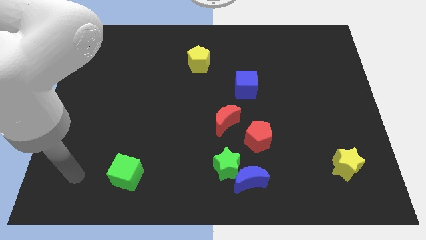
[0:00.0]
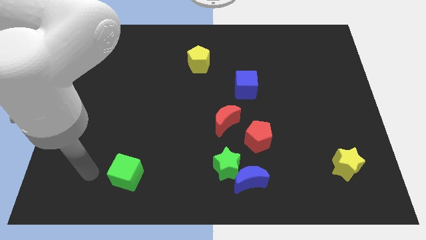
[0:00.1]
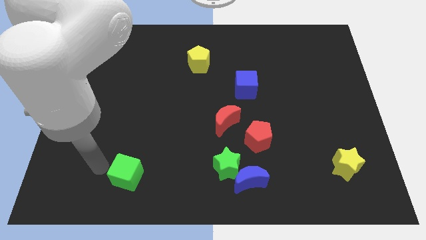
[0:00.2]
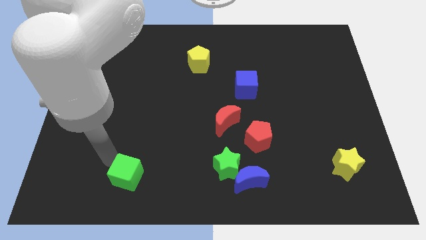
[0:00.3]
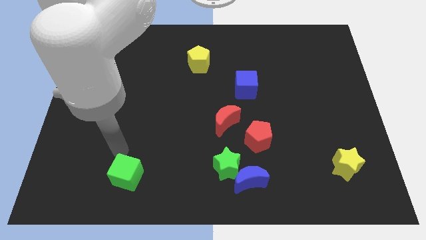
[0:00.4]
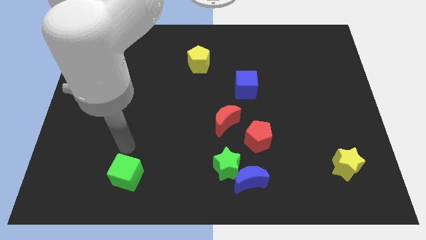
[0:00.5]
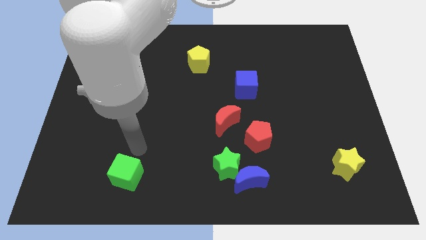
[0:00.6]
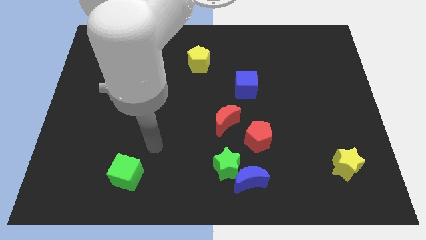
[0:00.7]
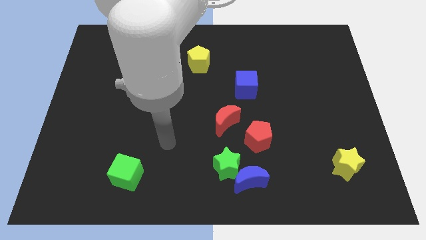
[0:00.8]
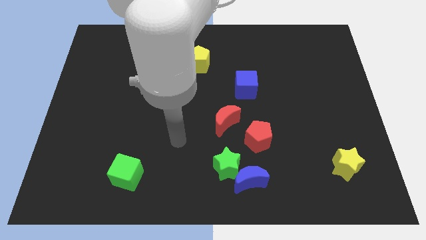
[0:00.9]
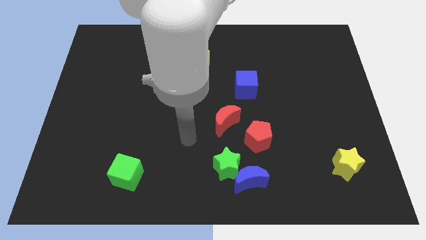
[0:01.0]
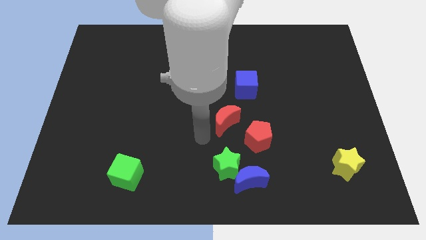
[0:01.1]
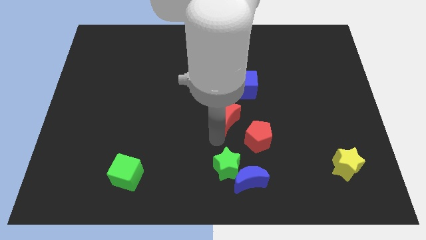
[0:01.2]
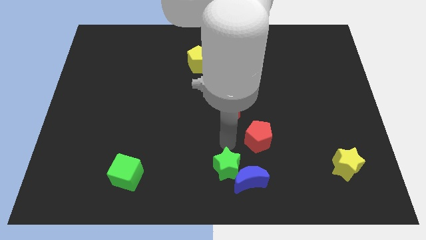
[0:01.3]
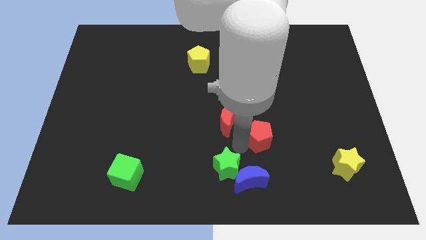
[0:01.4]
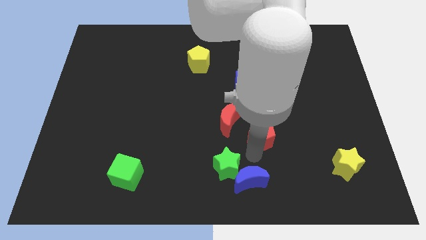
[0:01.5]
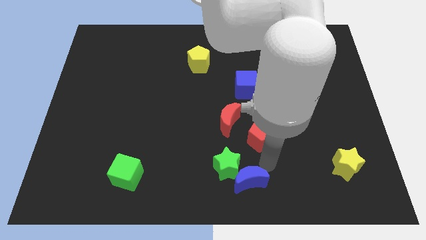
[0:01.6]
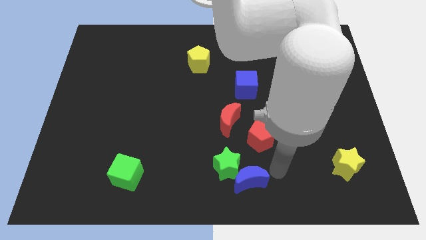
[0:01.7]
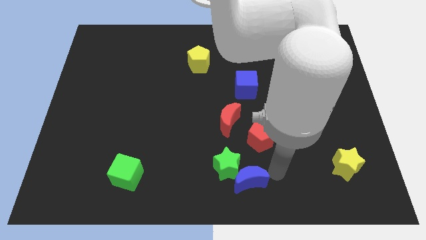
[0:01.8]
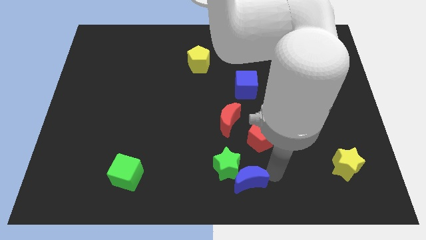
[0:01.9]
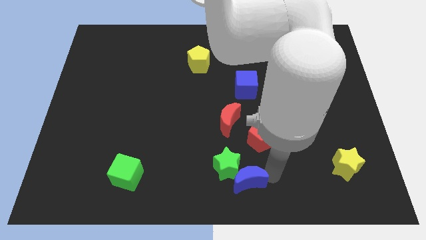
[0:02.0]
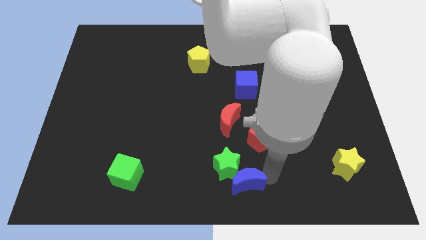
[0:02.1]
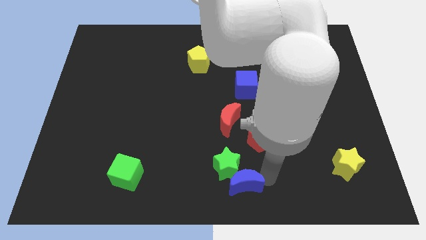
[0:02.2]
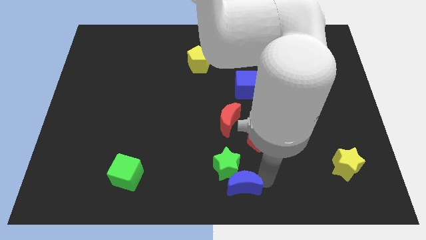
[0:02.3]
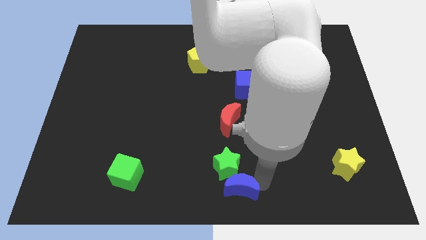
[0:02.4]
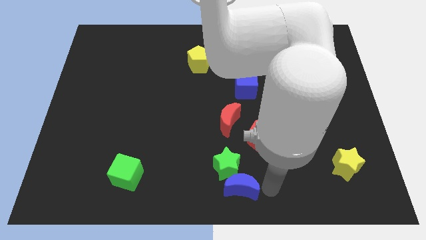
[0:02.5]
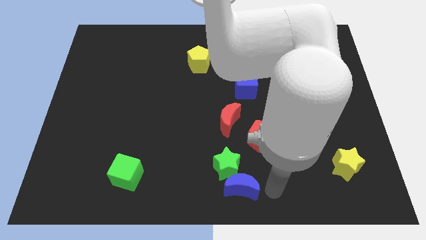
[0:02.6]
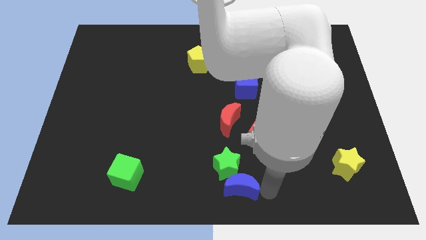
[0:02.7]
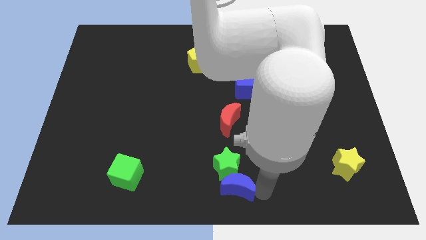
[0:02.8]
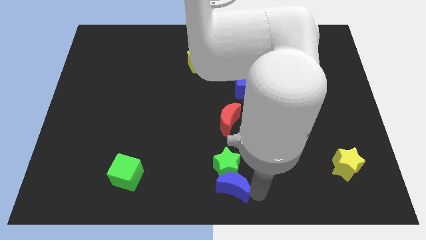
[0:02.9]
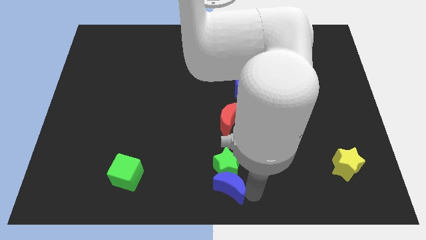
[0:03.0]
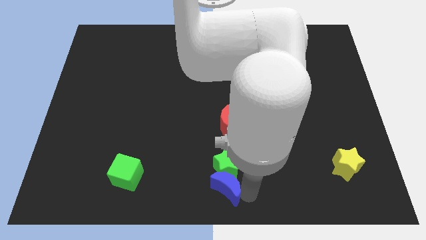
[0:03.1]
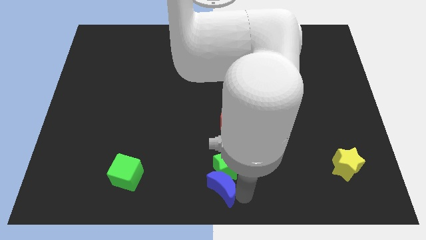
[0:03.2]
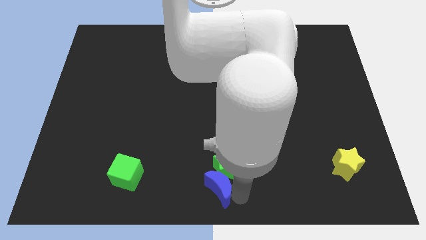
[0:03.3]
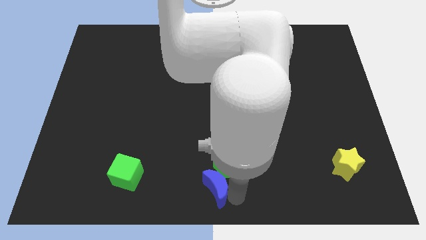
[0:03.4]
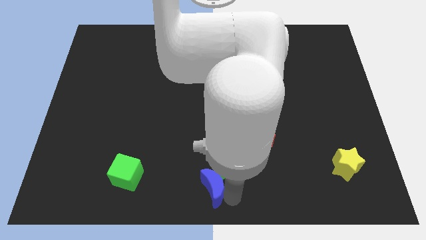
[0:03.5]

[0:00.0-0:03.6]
slide the blue moon somewhat left

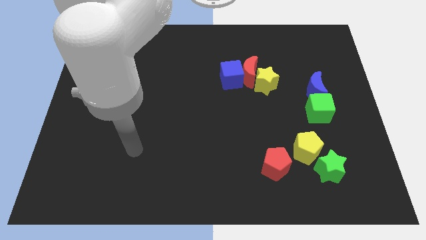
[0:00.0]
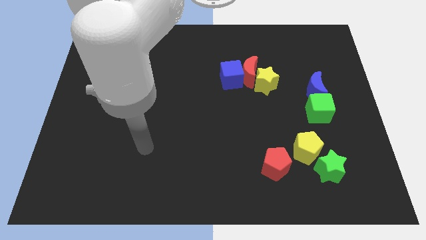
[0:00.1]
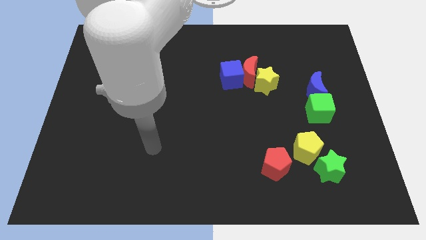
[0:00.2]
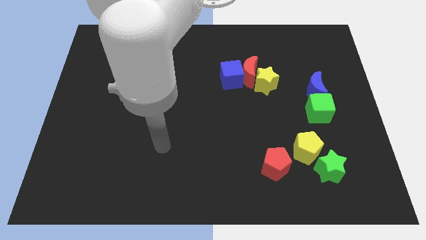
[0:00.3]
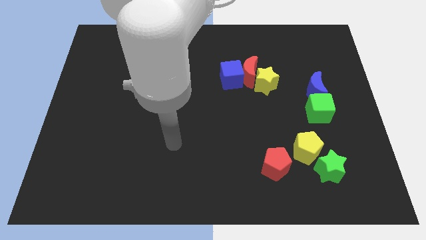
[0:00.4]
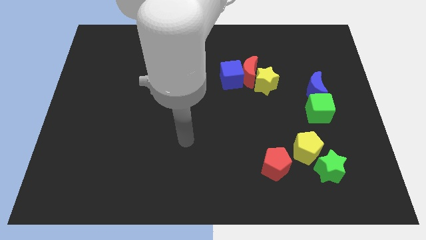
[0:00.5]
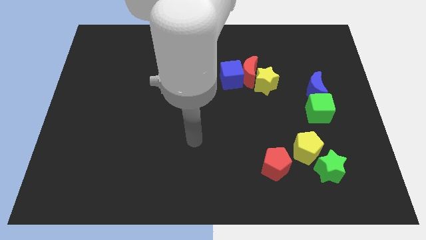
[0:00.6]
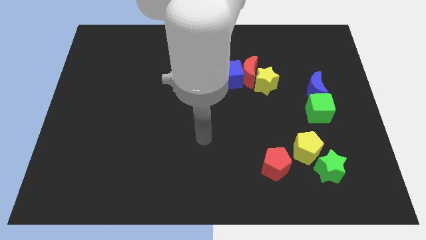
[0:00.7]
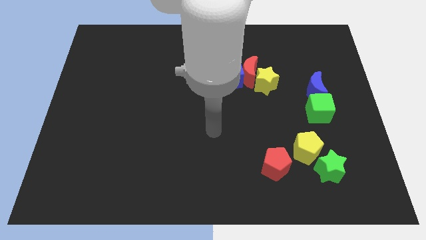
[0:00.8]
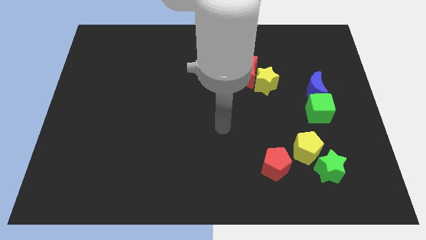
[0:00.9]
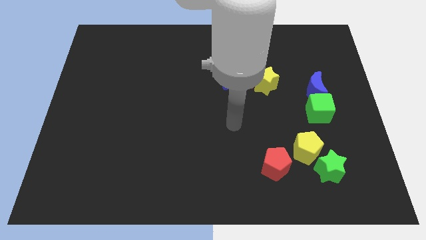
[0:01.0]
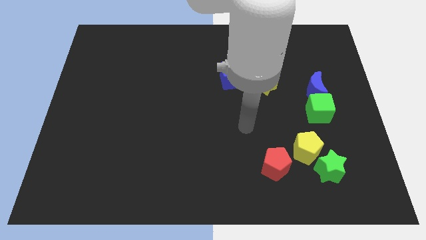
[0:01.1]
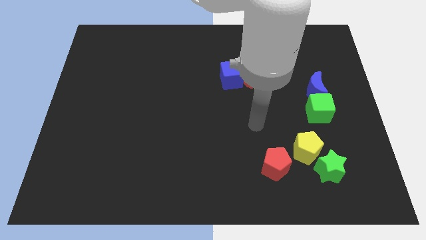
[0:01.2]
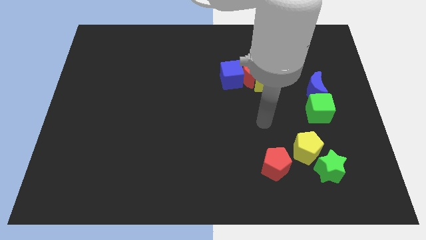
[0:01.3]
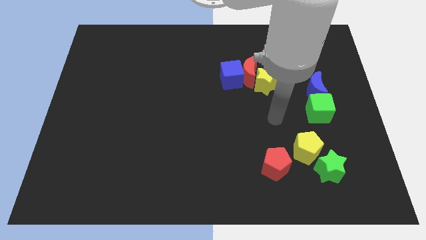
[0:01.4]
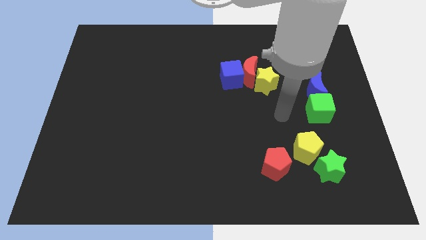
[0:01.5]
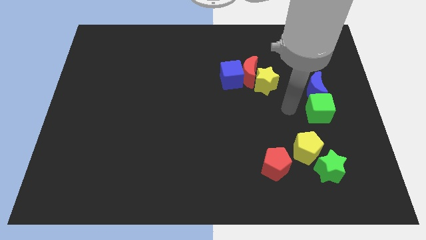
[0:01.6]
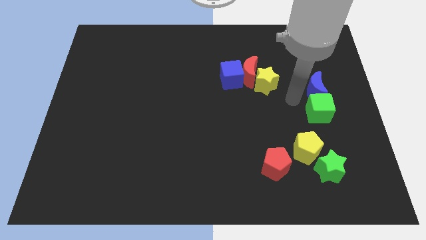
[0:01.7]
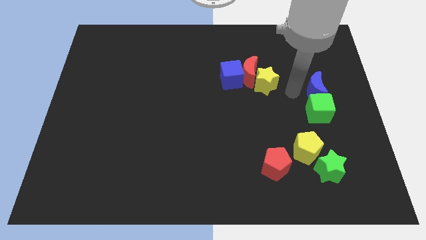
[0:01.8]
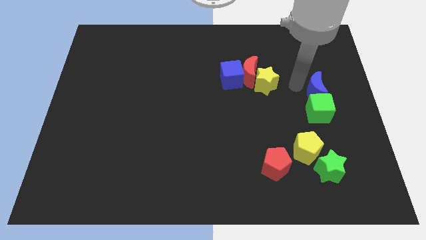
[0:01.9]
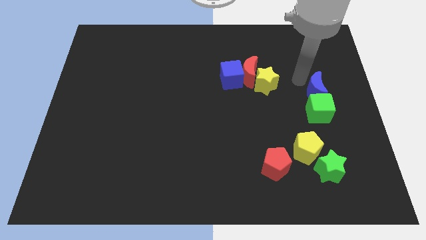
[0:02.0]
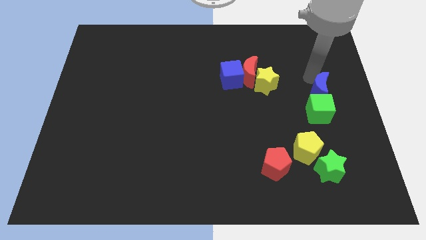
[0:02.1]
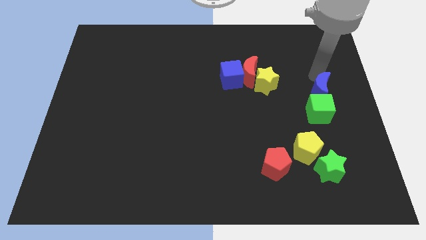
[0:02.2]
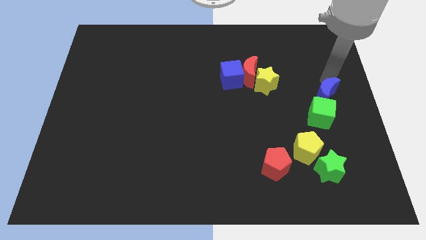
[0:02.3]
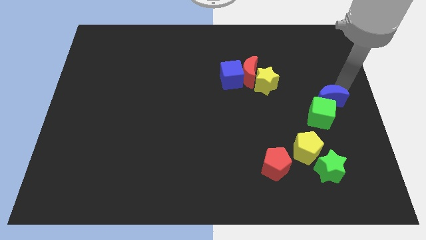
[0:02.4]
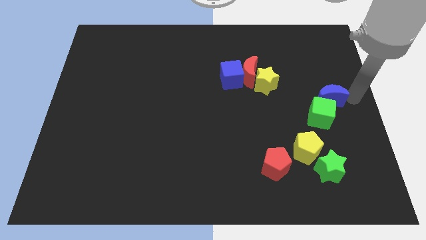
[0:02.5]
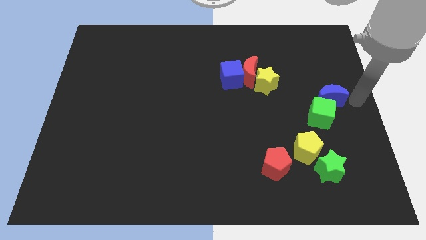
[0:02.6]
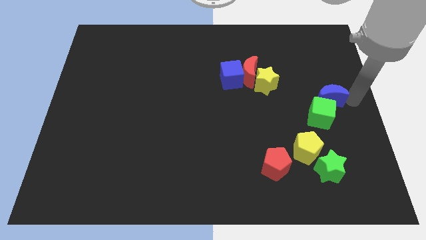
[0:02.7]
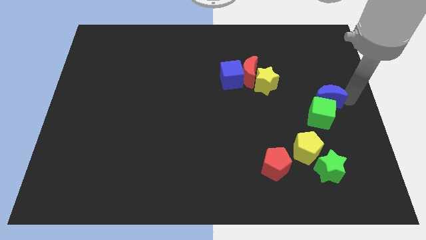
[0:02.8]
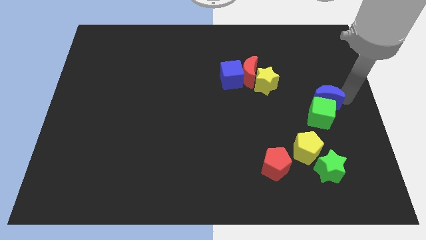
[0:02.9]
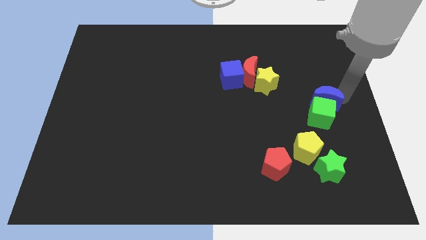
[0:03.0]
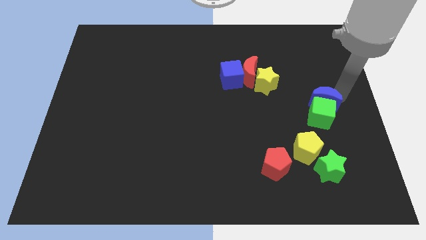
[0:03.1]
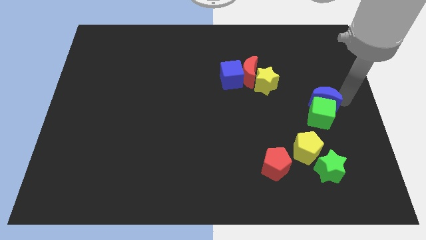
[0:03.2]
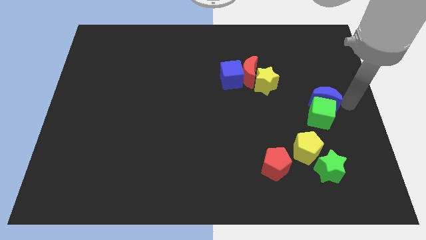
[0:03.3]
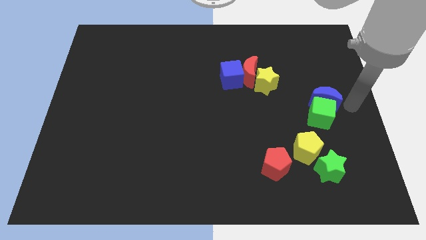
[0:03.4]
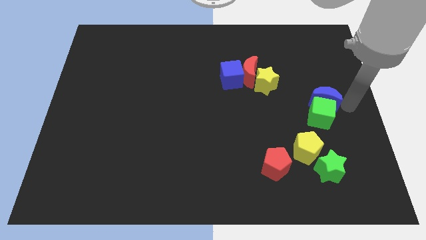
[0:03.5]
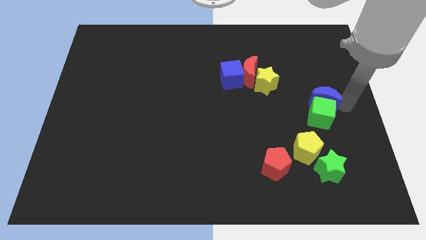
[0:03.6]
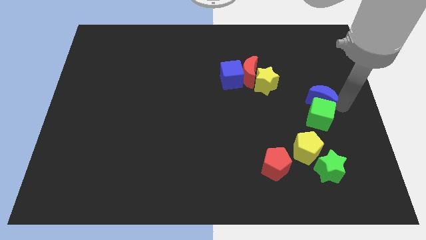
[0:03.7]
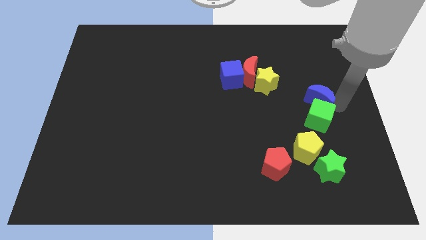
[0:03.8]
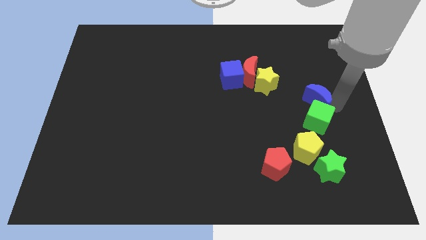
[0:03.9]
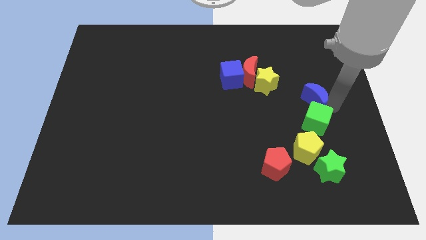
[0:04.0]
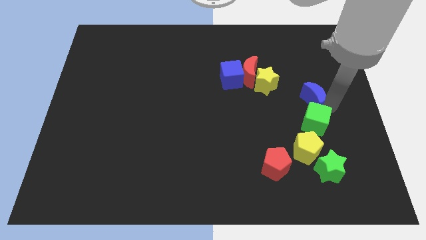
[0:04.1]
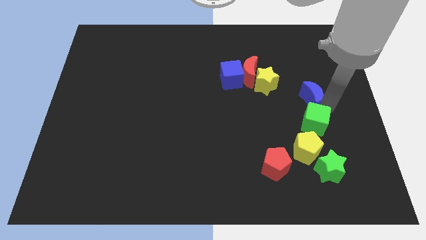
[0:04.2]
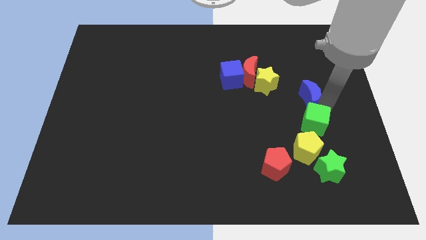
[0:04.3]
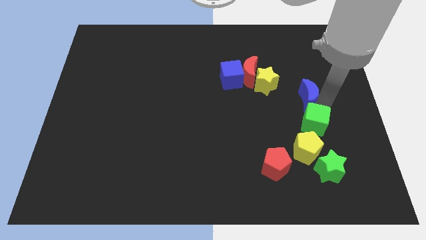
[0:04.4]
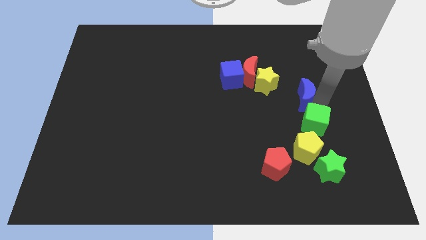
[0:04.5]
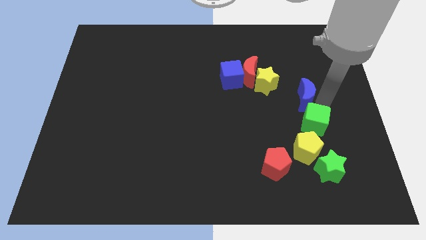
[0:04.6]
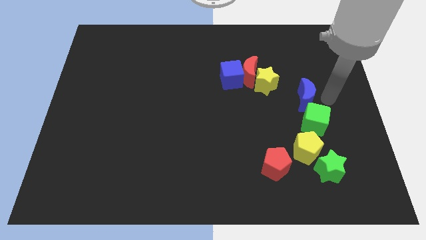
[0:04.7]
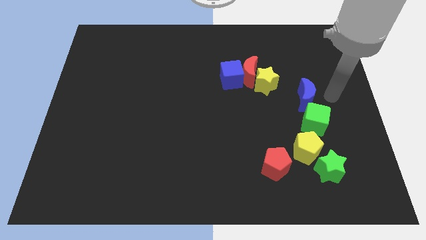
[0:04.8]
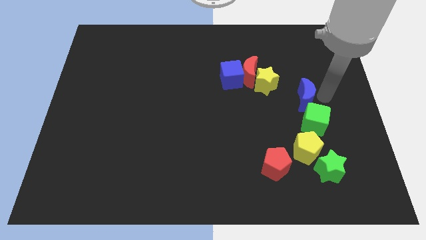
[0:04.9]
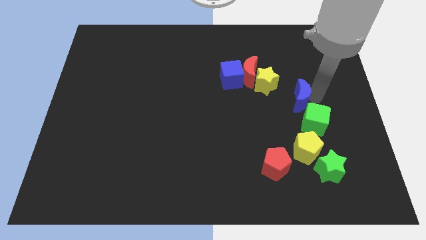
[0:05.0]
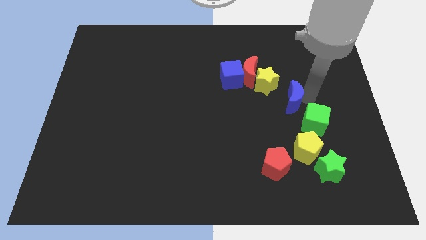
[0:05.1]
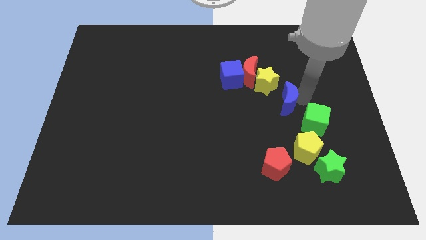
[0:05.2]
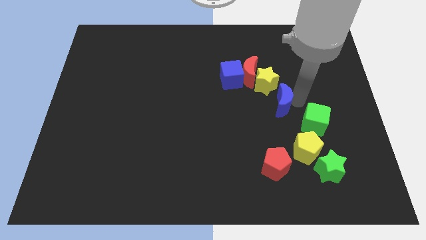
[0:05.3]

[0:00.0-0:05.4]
slightly slide the blue moon left
